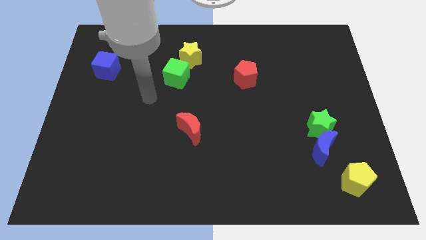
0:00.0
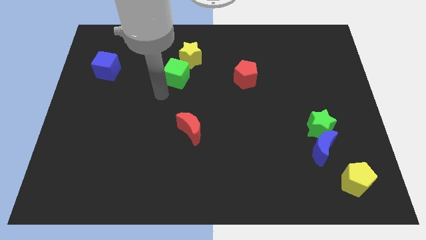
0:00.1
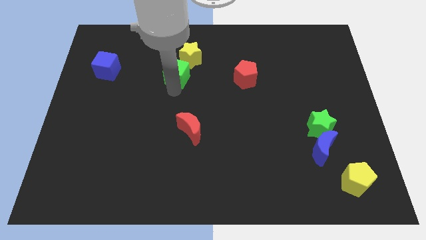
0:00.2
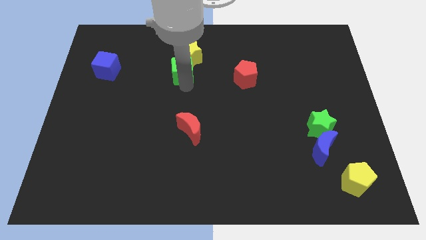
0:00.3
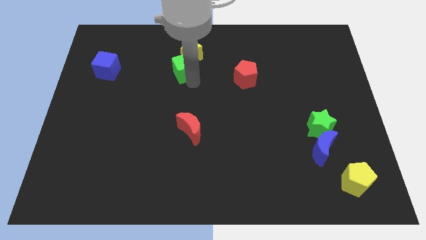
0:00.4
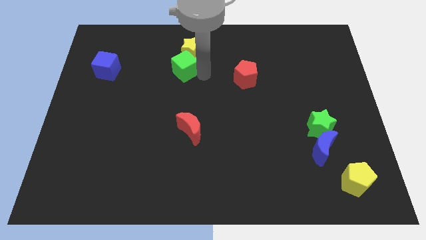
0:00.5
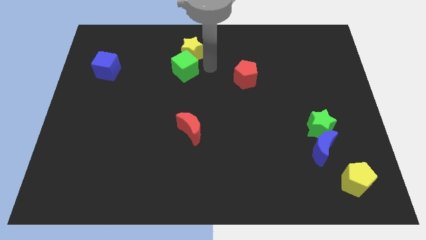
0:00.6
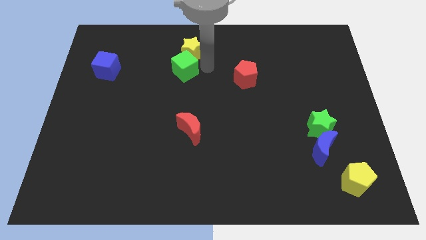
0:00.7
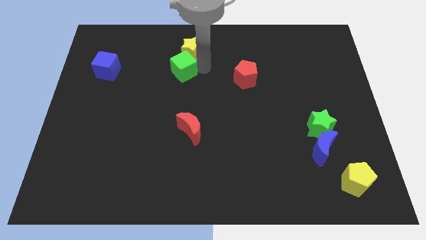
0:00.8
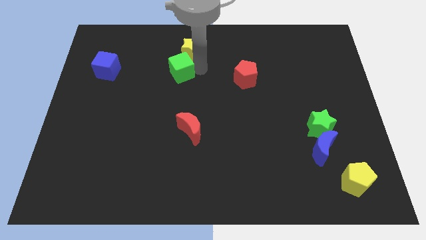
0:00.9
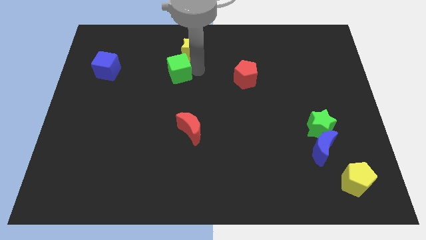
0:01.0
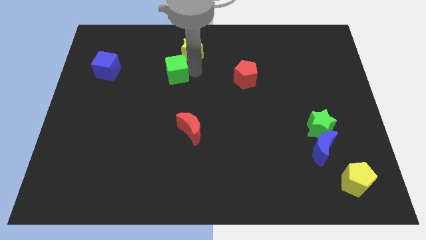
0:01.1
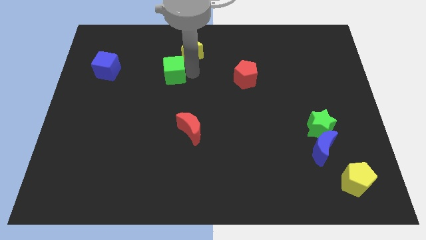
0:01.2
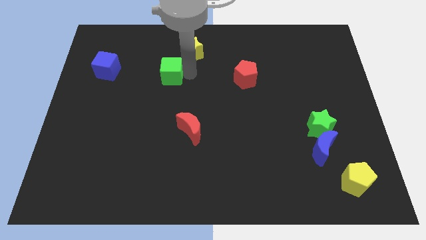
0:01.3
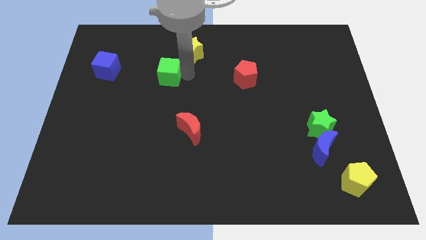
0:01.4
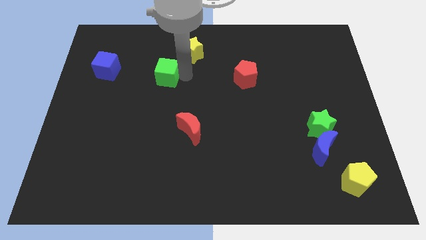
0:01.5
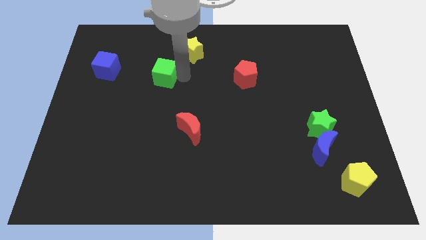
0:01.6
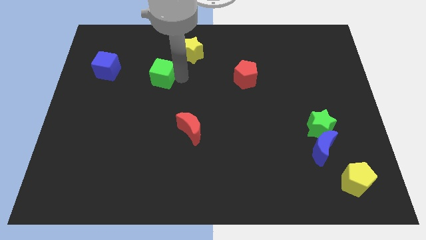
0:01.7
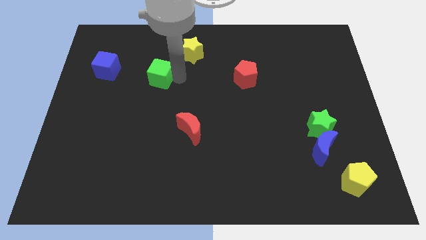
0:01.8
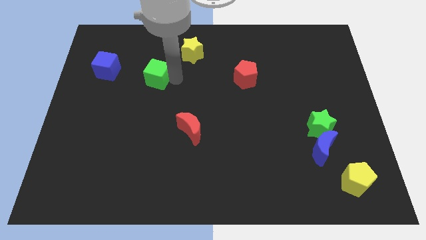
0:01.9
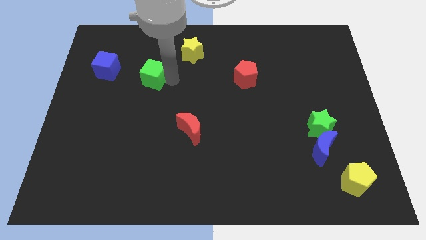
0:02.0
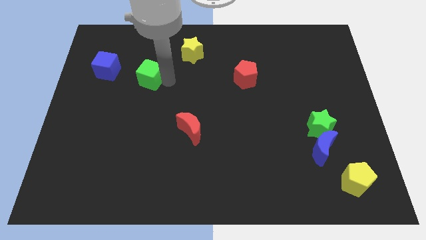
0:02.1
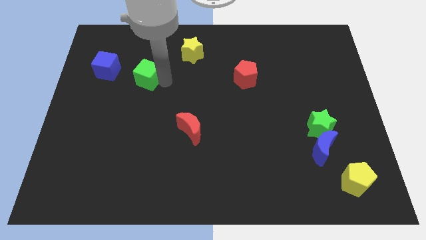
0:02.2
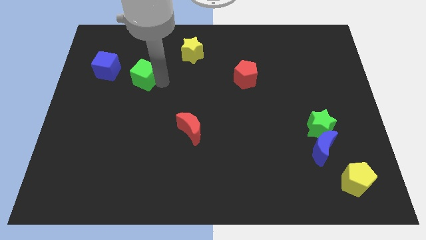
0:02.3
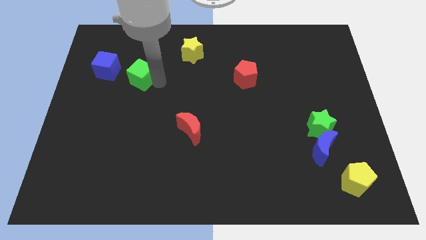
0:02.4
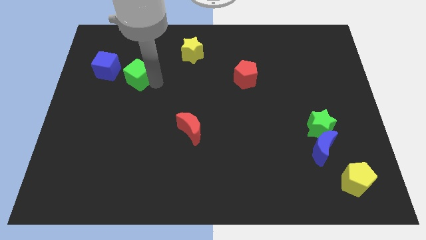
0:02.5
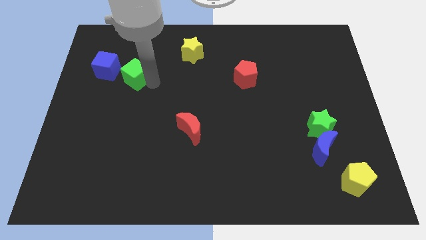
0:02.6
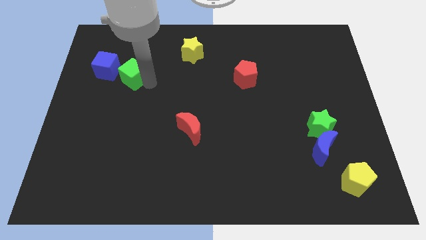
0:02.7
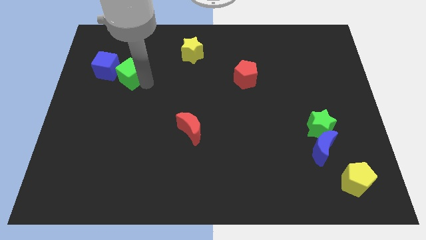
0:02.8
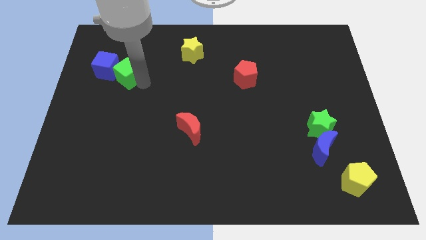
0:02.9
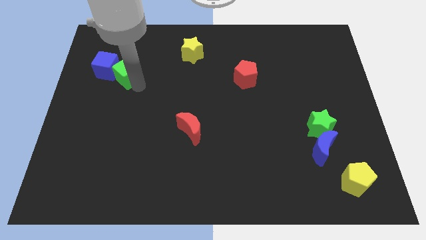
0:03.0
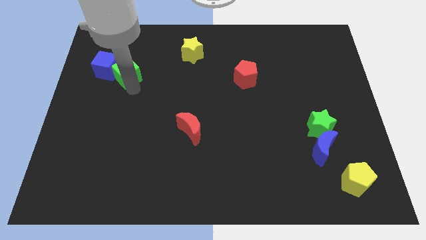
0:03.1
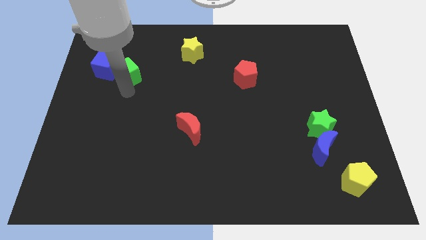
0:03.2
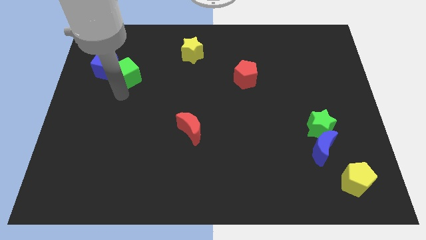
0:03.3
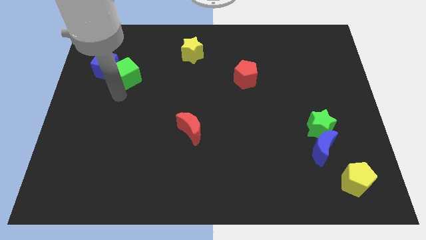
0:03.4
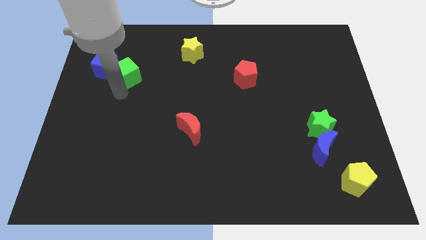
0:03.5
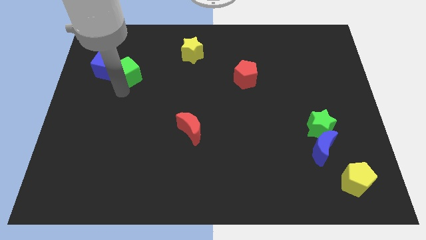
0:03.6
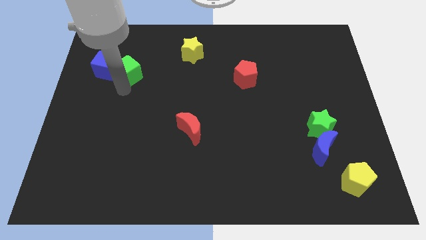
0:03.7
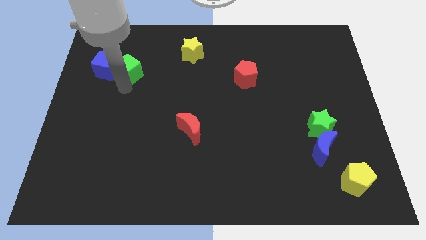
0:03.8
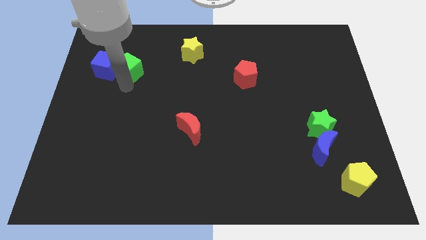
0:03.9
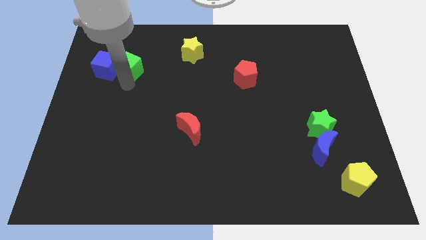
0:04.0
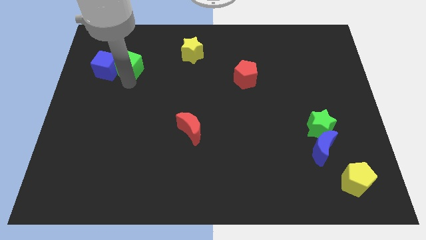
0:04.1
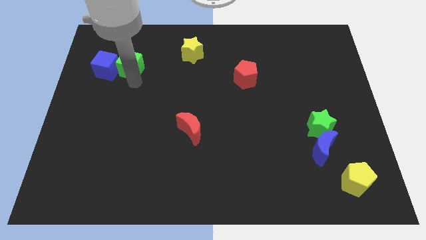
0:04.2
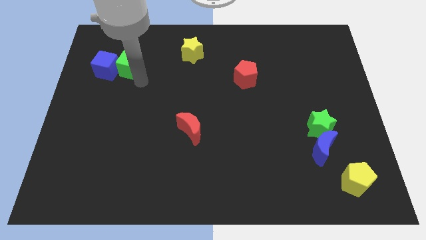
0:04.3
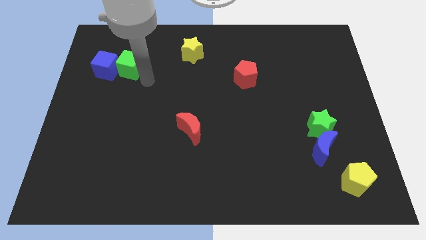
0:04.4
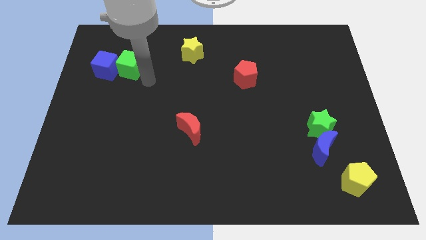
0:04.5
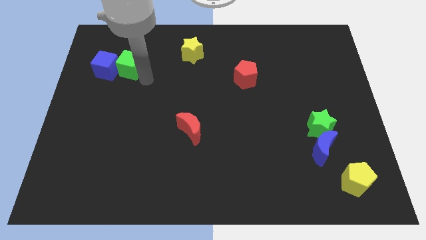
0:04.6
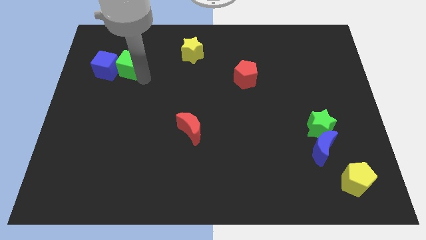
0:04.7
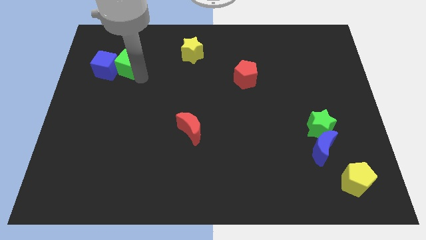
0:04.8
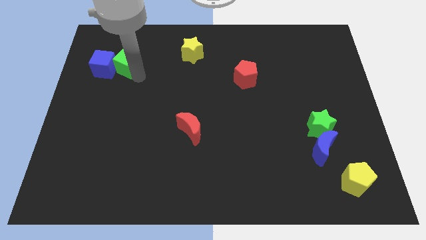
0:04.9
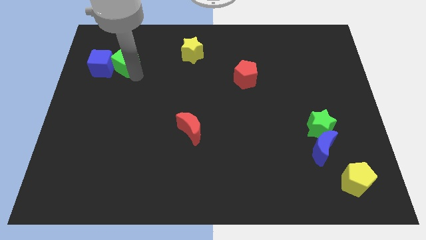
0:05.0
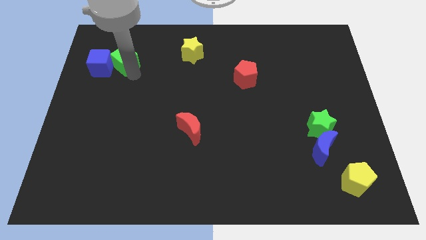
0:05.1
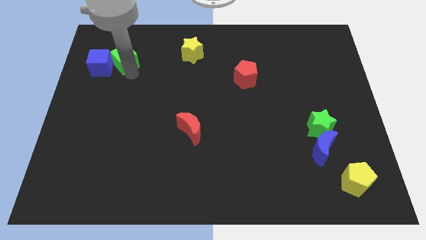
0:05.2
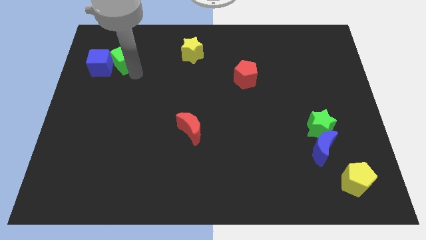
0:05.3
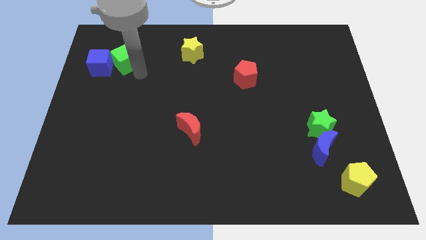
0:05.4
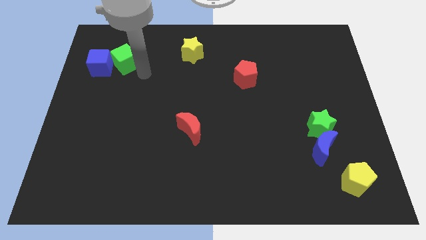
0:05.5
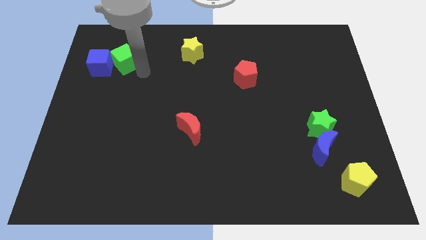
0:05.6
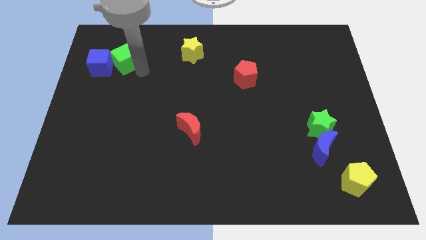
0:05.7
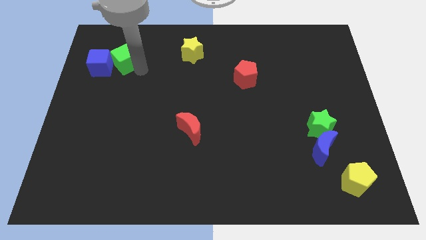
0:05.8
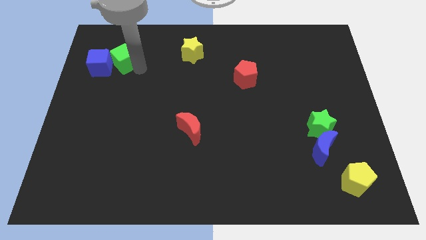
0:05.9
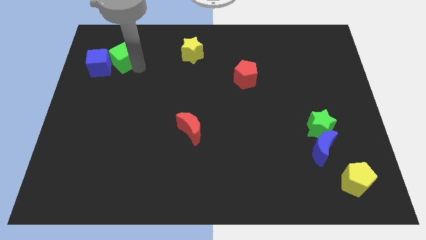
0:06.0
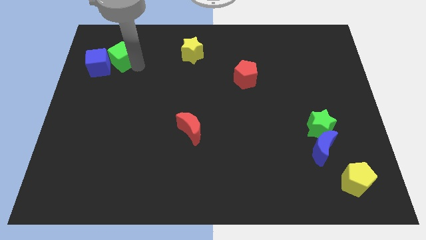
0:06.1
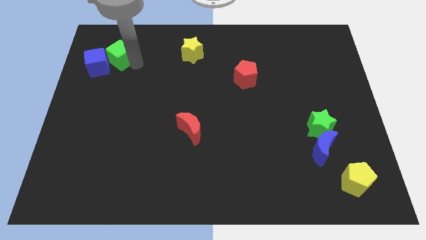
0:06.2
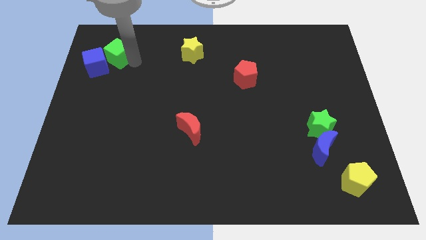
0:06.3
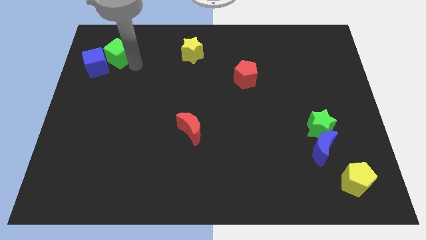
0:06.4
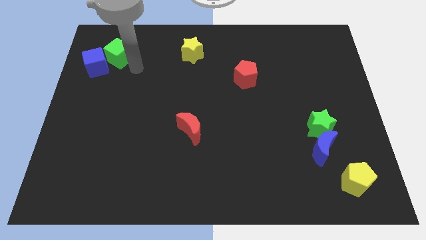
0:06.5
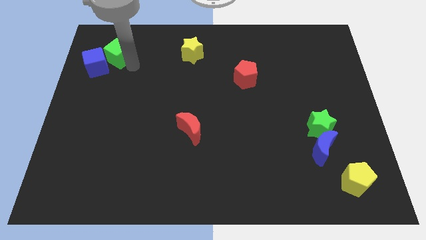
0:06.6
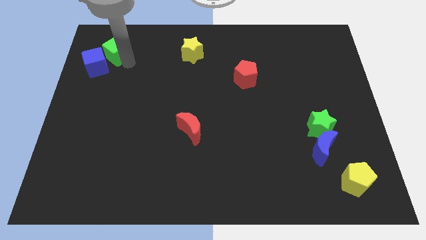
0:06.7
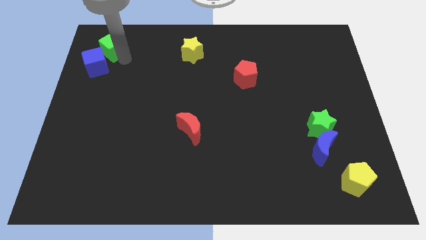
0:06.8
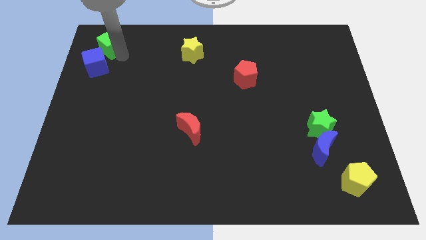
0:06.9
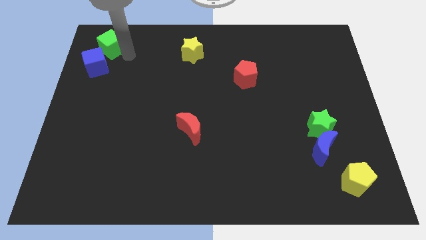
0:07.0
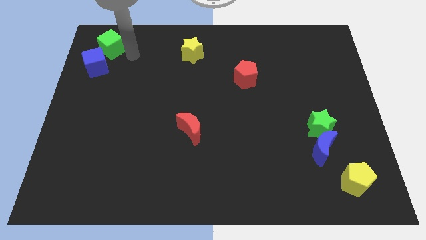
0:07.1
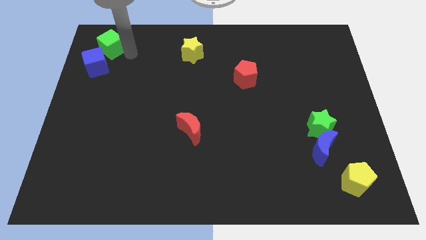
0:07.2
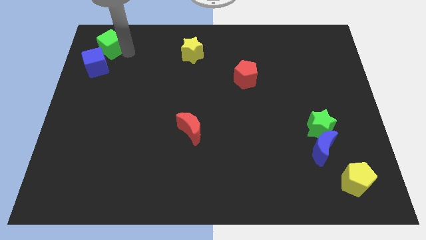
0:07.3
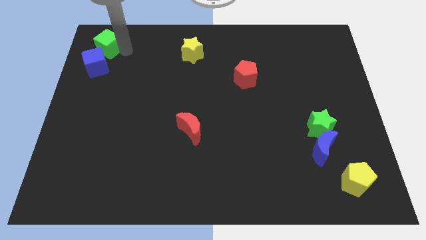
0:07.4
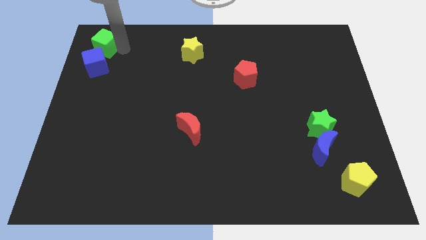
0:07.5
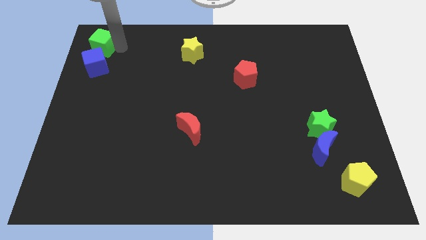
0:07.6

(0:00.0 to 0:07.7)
slide the green cube to the top left
